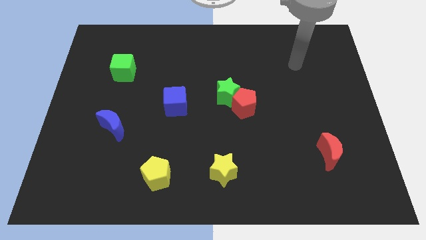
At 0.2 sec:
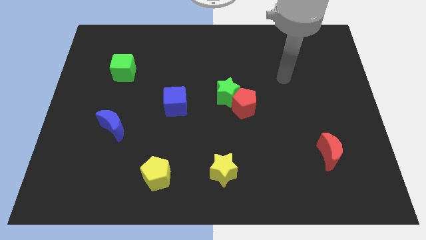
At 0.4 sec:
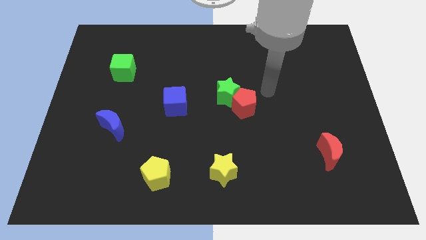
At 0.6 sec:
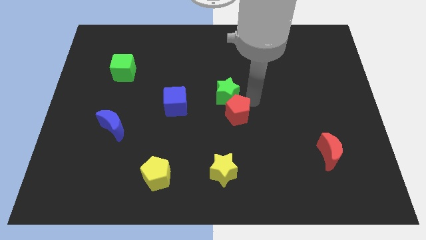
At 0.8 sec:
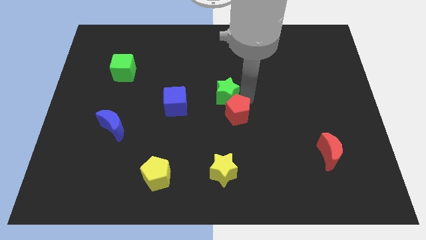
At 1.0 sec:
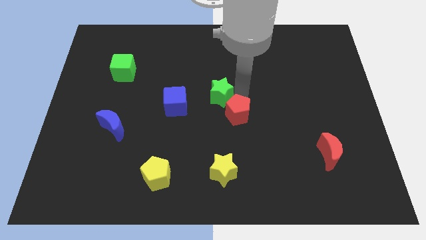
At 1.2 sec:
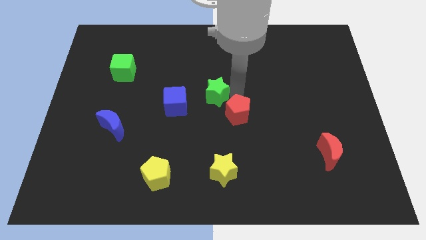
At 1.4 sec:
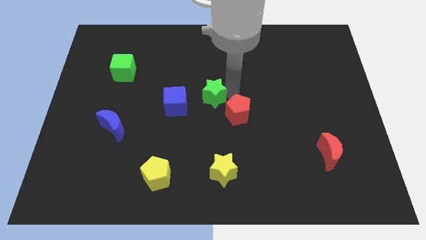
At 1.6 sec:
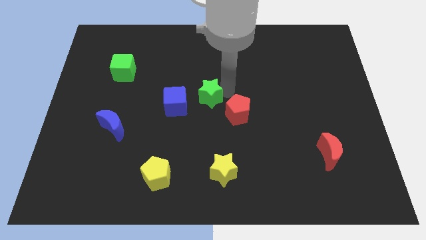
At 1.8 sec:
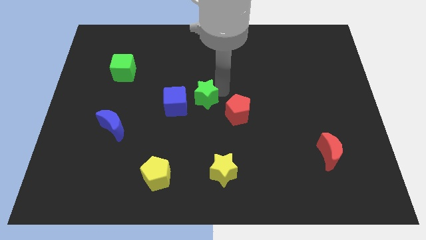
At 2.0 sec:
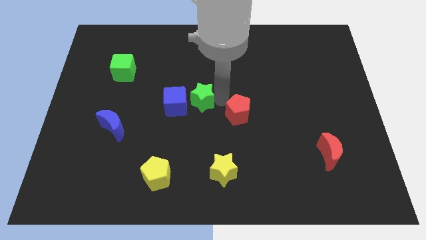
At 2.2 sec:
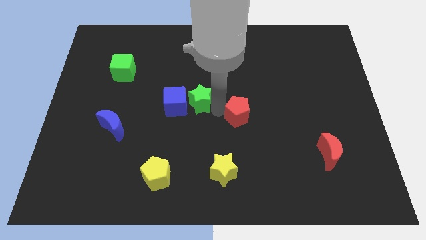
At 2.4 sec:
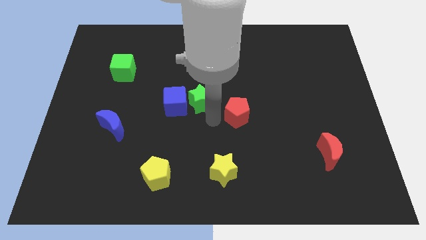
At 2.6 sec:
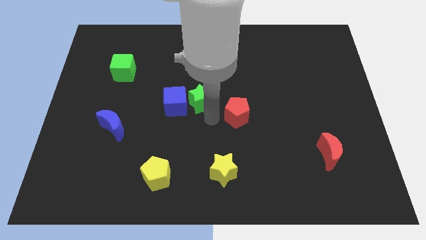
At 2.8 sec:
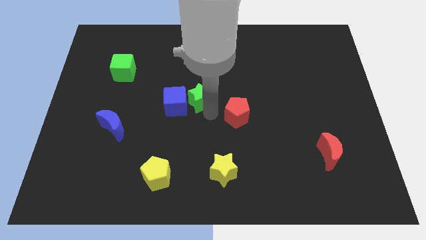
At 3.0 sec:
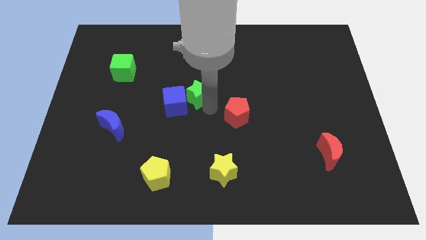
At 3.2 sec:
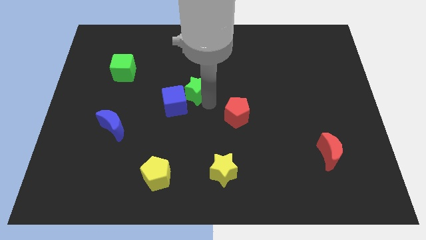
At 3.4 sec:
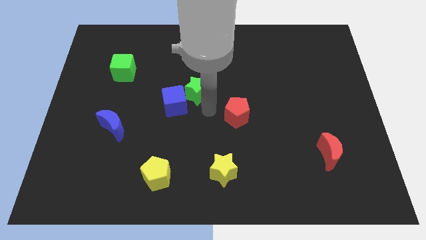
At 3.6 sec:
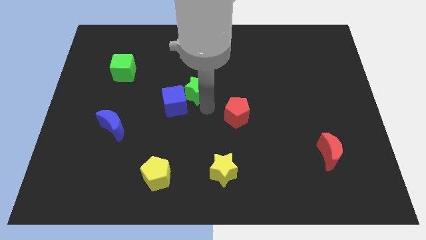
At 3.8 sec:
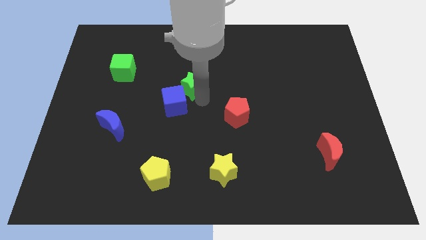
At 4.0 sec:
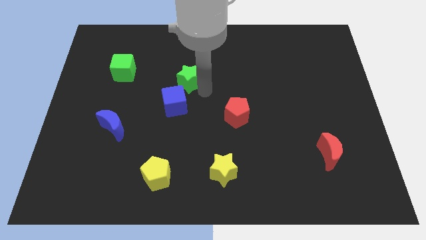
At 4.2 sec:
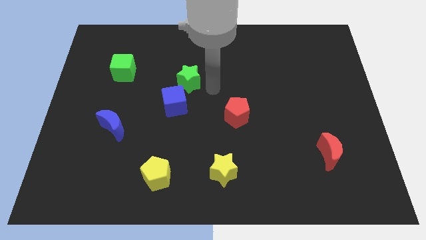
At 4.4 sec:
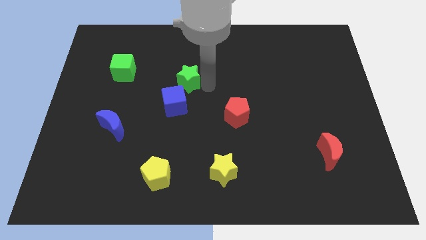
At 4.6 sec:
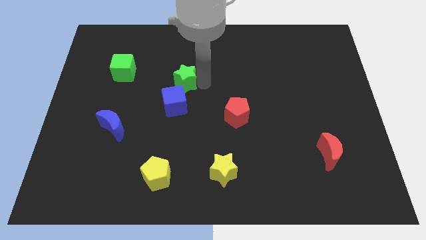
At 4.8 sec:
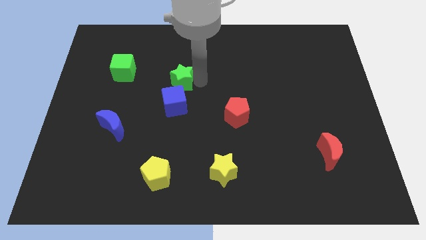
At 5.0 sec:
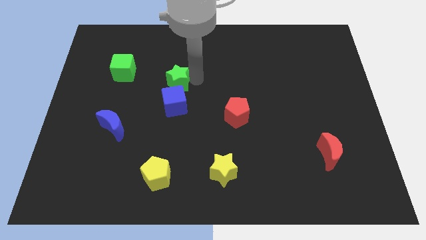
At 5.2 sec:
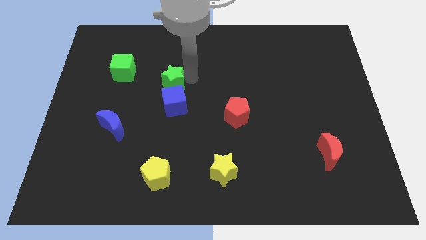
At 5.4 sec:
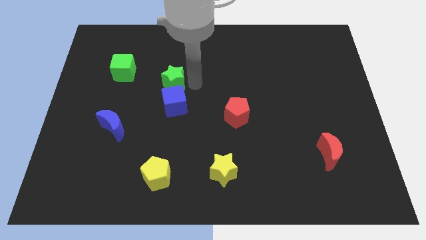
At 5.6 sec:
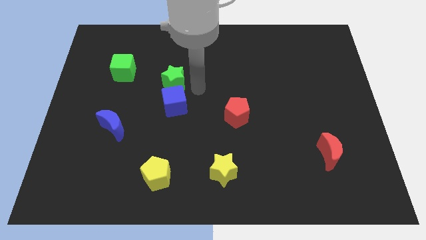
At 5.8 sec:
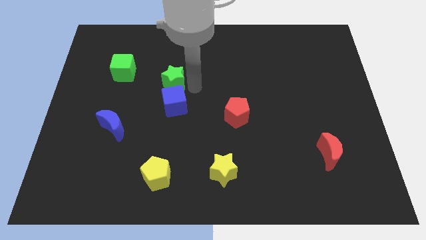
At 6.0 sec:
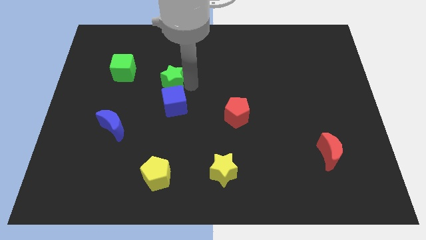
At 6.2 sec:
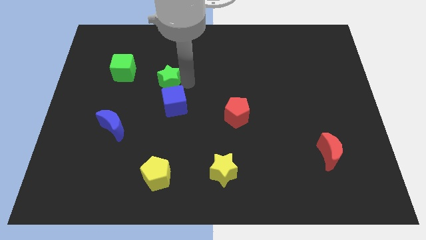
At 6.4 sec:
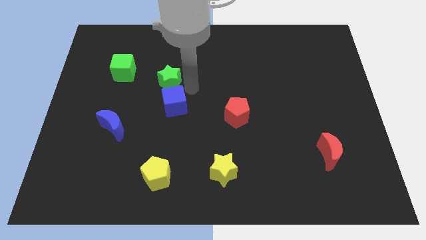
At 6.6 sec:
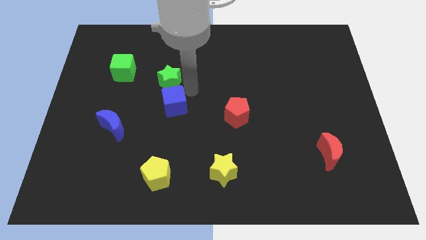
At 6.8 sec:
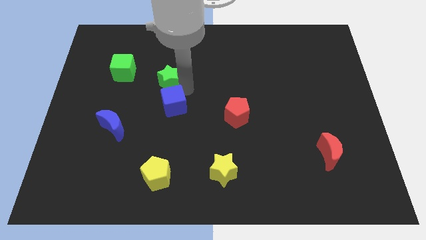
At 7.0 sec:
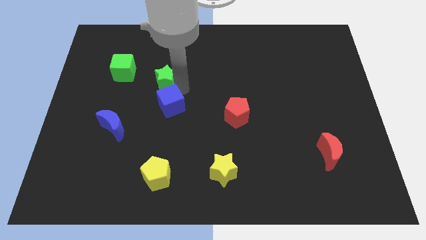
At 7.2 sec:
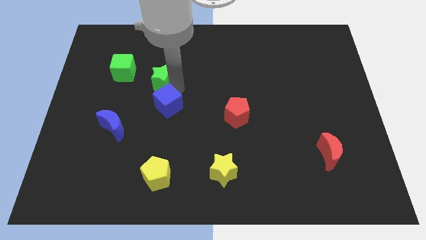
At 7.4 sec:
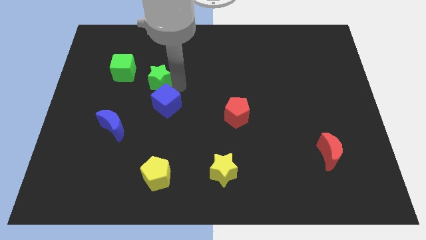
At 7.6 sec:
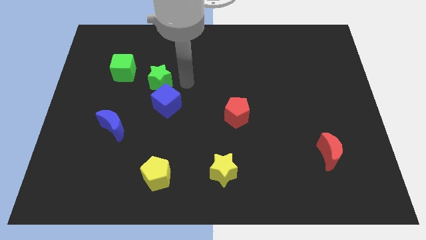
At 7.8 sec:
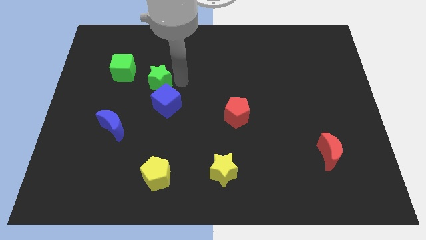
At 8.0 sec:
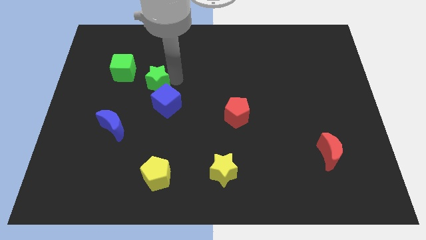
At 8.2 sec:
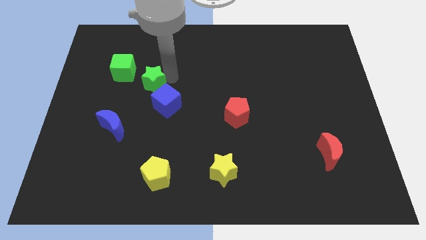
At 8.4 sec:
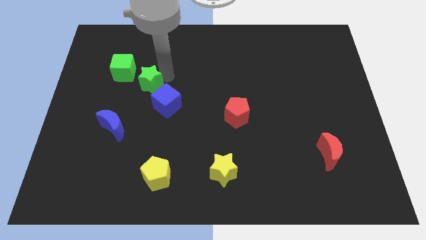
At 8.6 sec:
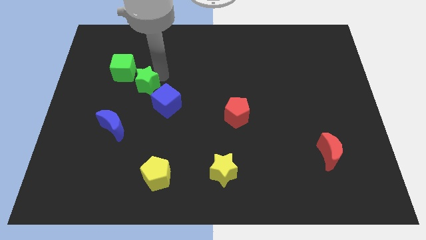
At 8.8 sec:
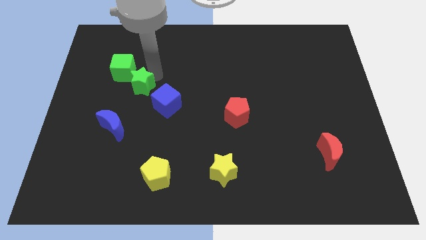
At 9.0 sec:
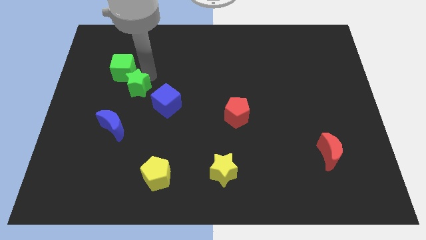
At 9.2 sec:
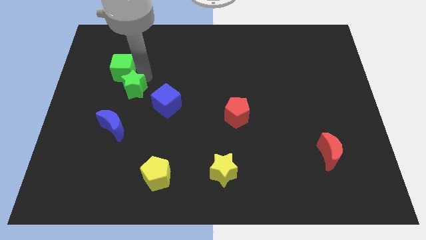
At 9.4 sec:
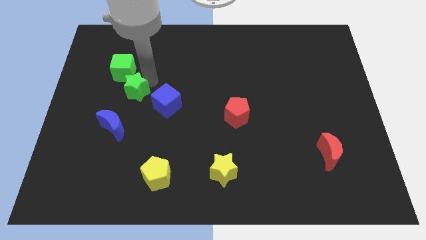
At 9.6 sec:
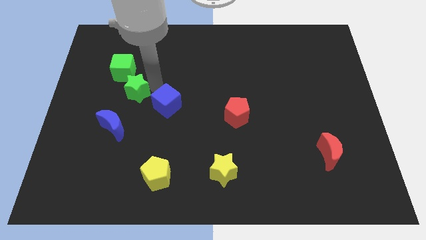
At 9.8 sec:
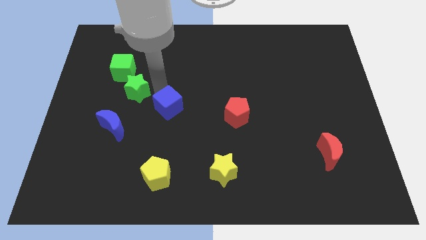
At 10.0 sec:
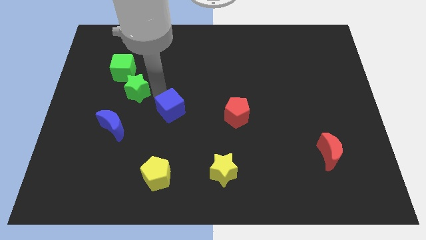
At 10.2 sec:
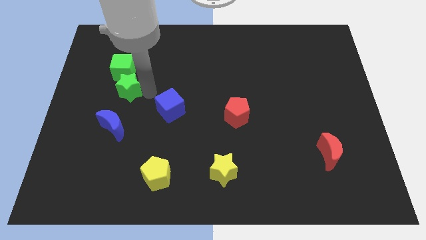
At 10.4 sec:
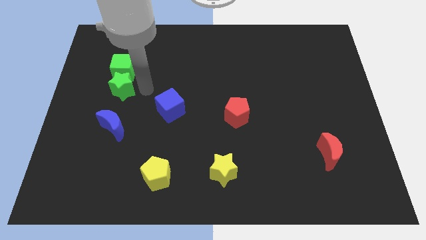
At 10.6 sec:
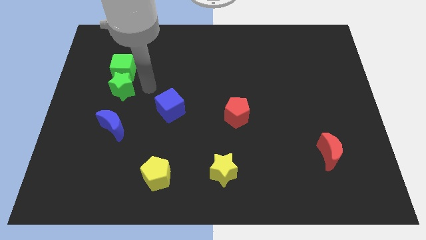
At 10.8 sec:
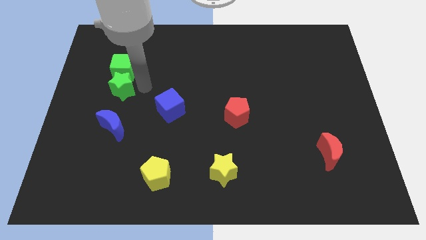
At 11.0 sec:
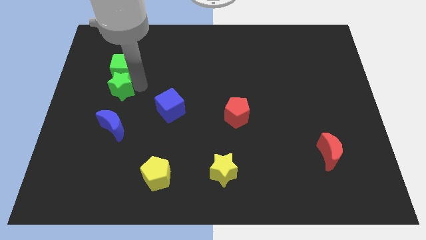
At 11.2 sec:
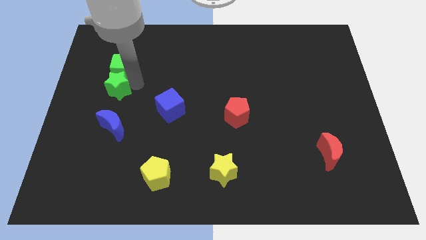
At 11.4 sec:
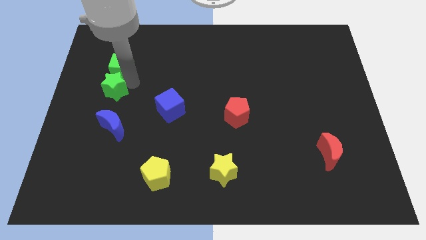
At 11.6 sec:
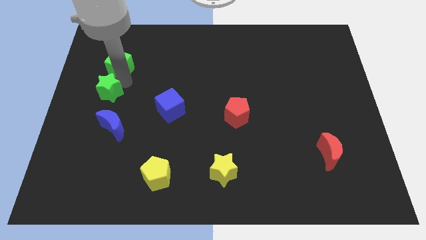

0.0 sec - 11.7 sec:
move the green star to the left side of the board

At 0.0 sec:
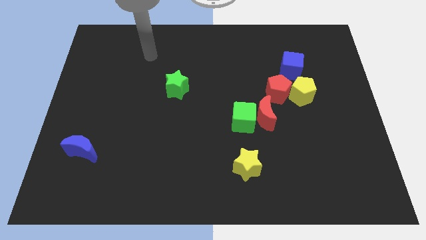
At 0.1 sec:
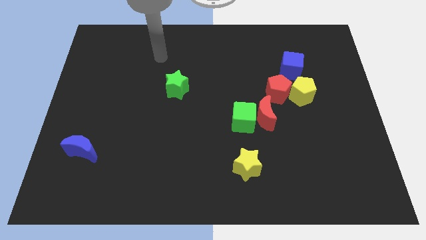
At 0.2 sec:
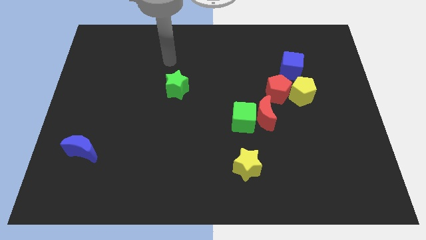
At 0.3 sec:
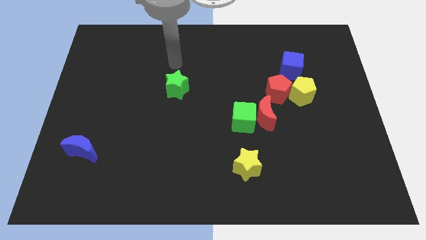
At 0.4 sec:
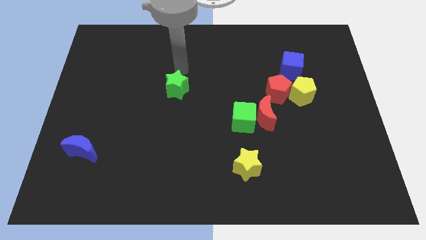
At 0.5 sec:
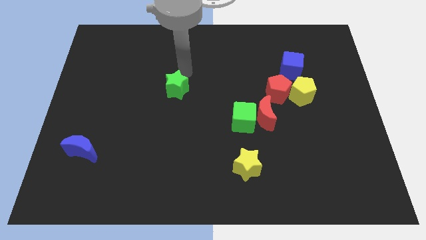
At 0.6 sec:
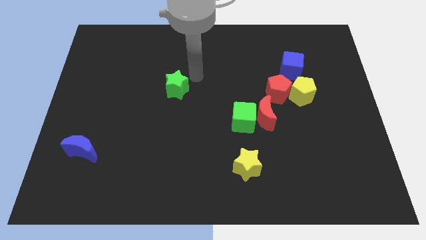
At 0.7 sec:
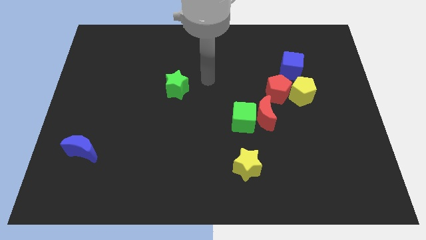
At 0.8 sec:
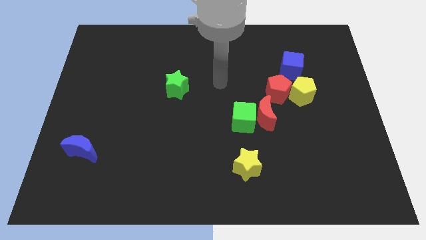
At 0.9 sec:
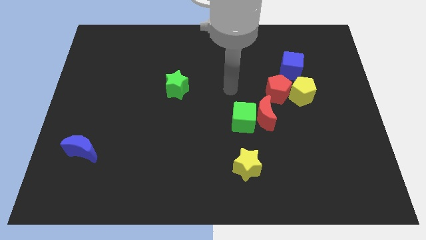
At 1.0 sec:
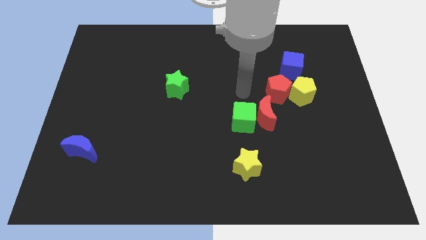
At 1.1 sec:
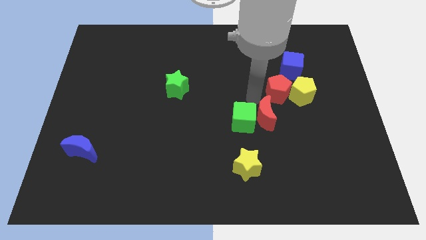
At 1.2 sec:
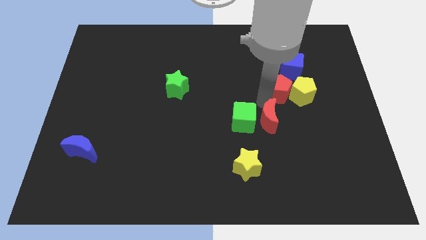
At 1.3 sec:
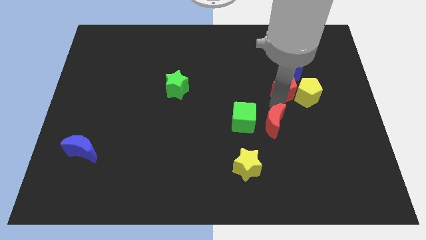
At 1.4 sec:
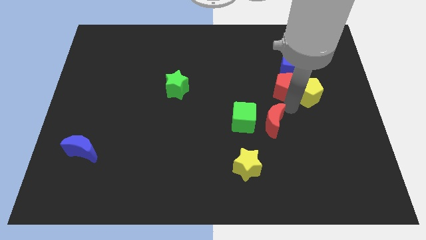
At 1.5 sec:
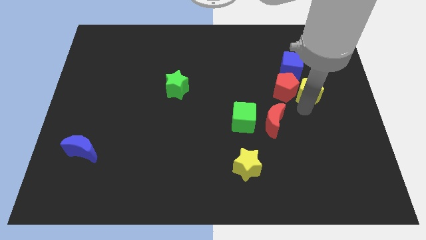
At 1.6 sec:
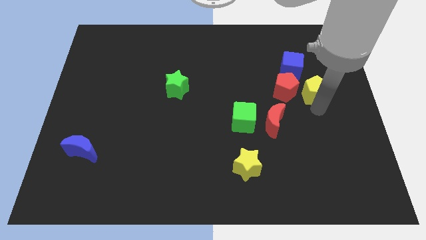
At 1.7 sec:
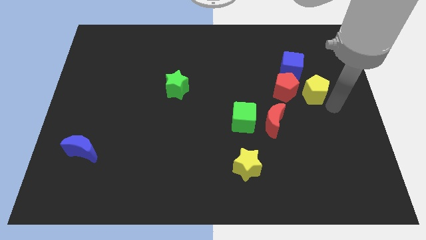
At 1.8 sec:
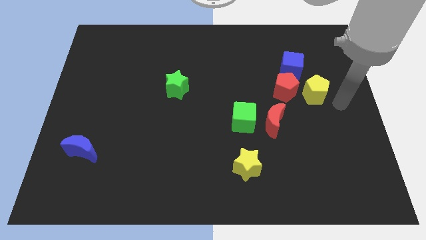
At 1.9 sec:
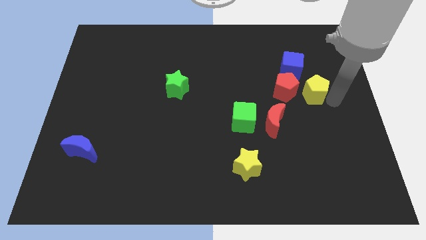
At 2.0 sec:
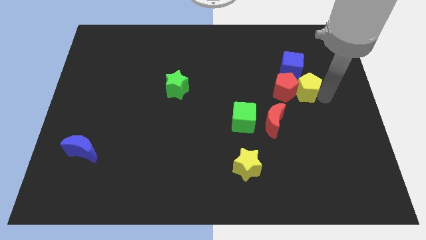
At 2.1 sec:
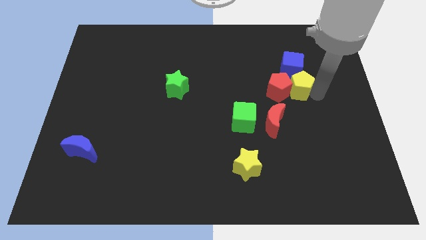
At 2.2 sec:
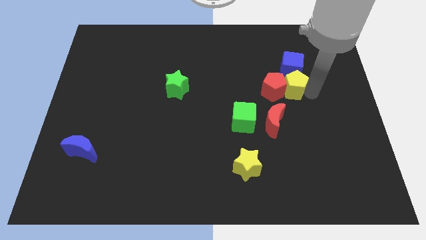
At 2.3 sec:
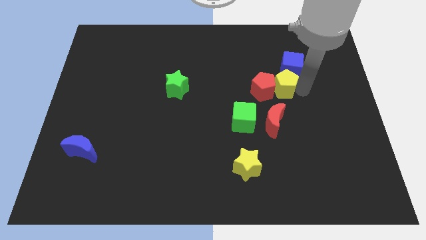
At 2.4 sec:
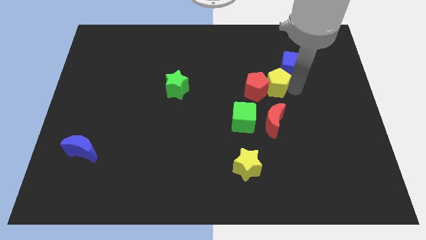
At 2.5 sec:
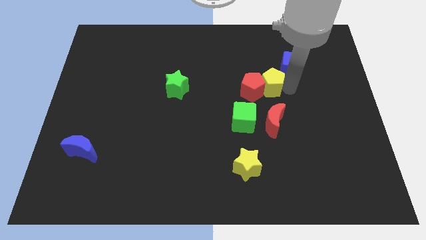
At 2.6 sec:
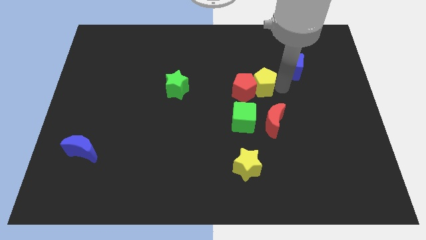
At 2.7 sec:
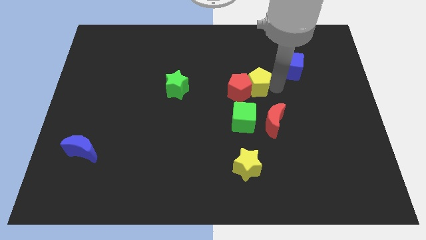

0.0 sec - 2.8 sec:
put the yellow pentagon to the middle of the board
